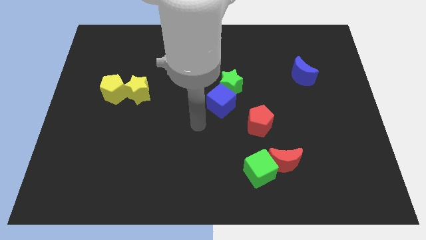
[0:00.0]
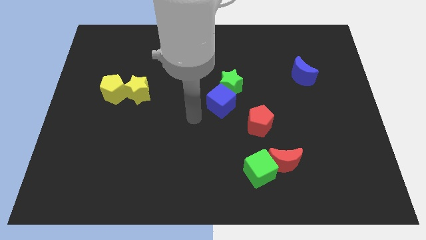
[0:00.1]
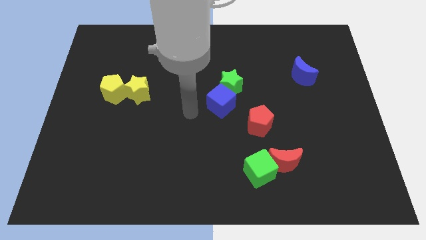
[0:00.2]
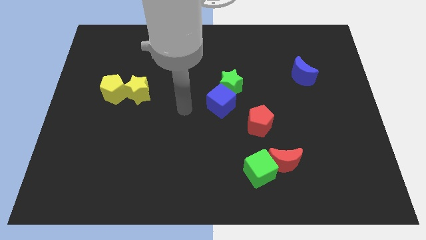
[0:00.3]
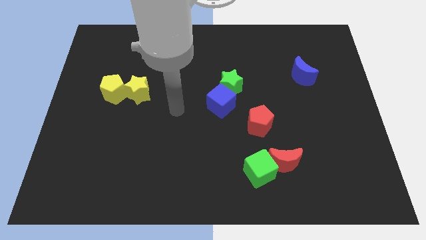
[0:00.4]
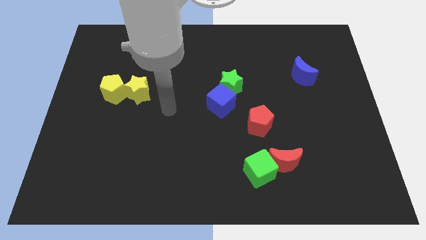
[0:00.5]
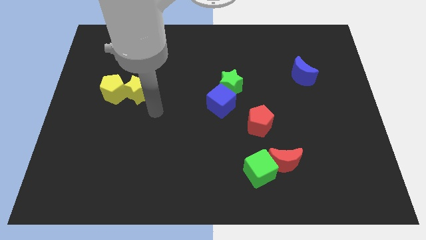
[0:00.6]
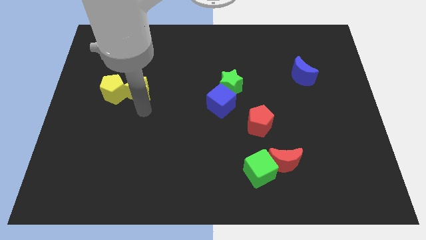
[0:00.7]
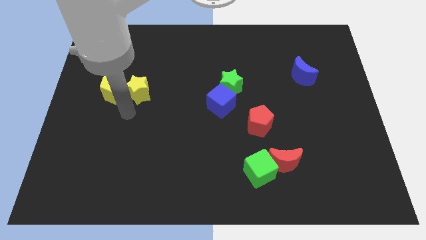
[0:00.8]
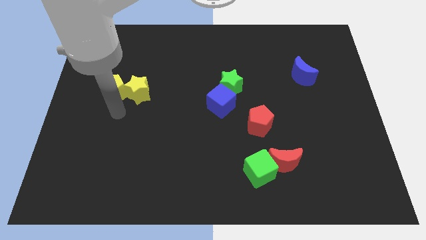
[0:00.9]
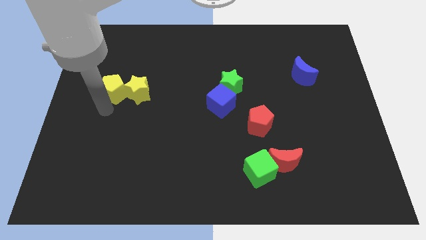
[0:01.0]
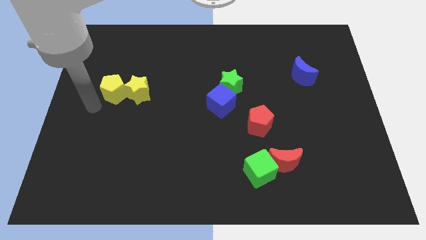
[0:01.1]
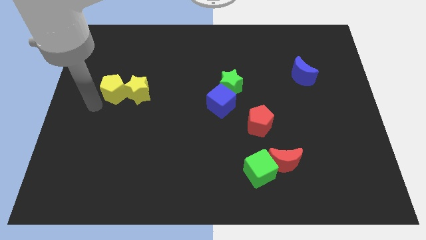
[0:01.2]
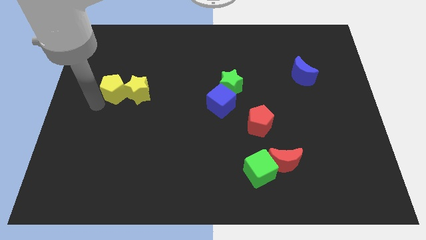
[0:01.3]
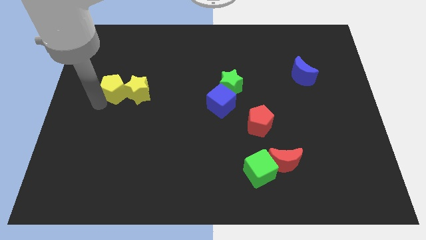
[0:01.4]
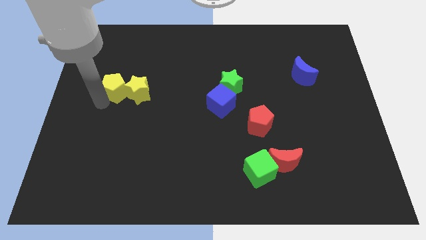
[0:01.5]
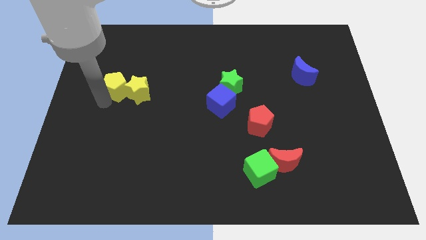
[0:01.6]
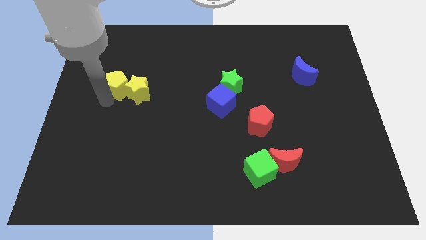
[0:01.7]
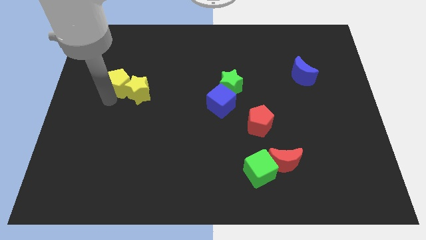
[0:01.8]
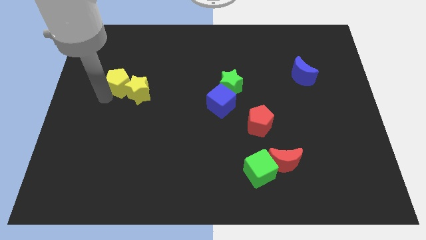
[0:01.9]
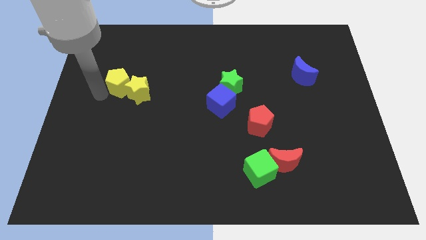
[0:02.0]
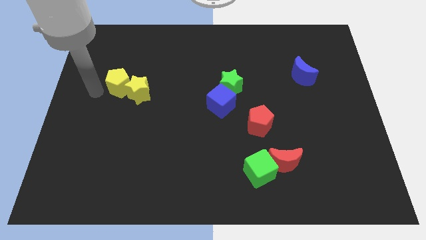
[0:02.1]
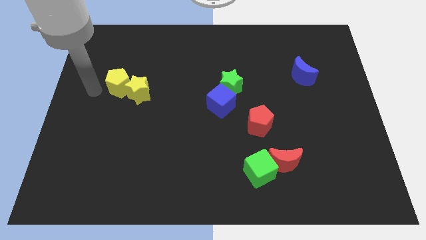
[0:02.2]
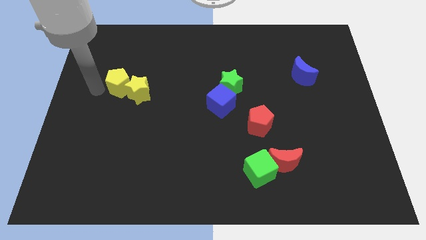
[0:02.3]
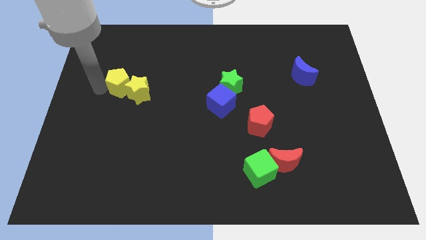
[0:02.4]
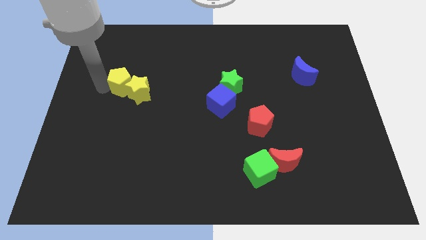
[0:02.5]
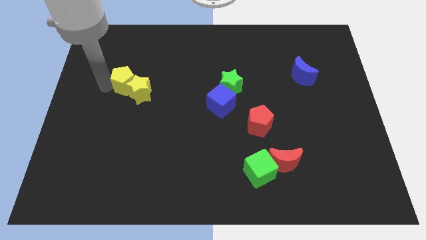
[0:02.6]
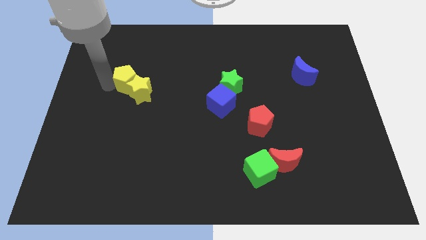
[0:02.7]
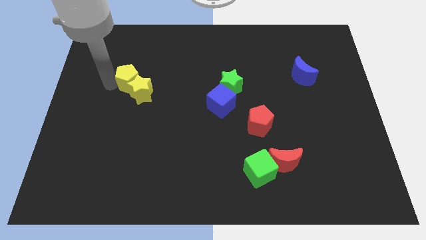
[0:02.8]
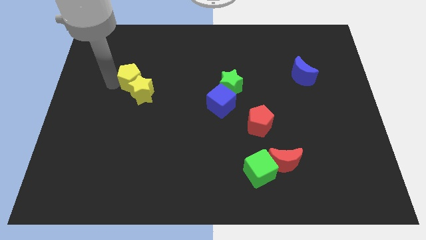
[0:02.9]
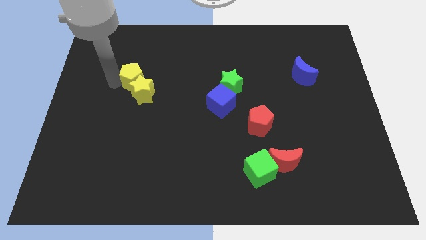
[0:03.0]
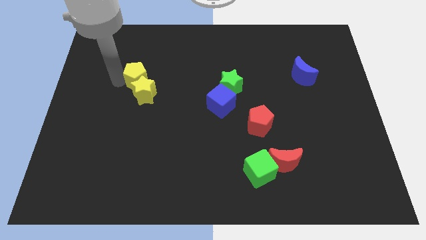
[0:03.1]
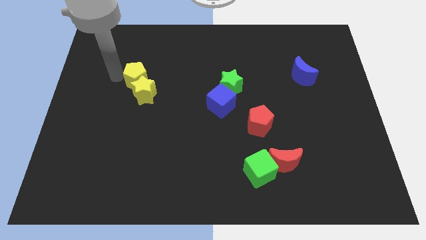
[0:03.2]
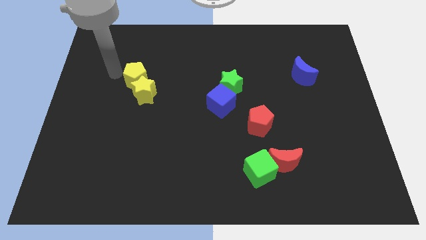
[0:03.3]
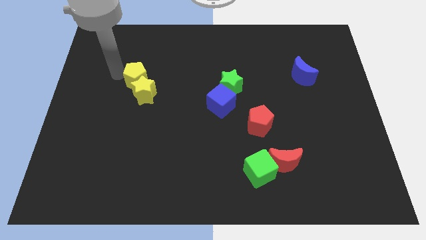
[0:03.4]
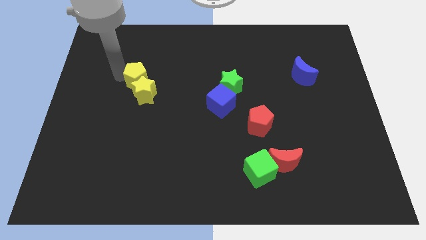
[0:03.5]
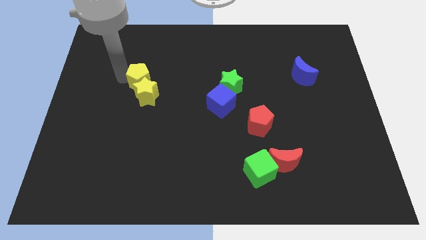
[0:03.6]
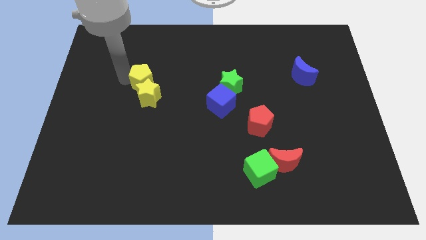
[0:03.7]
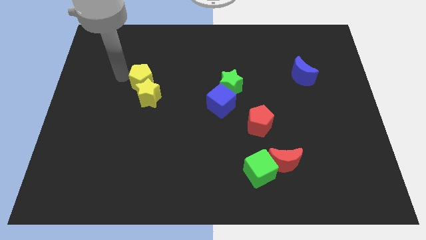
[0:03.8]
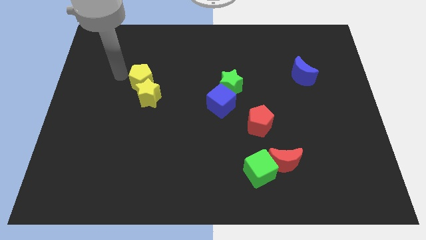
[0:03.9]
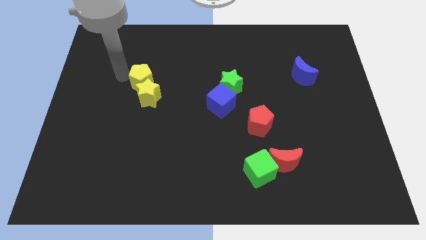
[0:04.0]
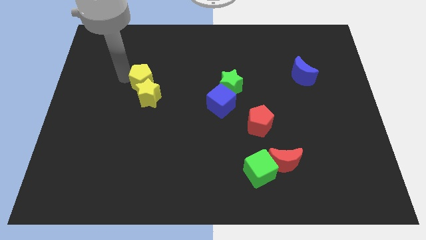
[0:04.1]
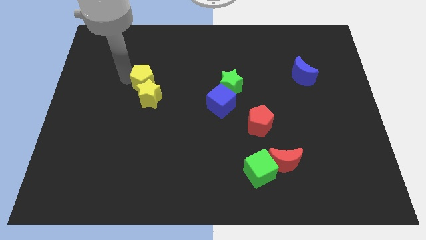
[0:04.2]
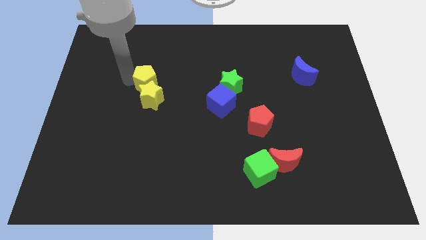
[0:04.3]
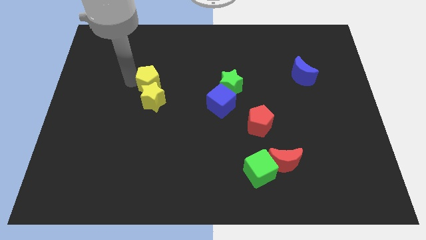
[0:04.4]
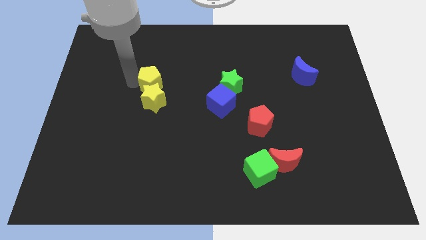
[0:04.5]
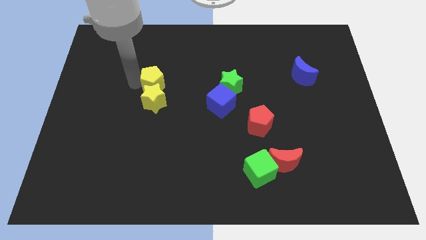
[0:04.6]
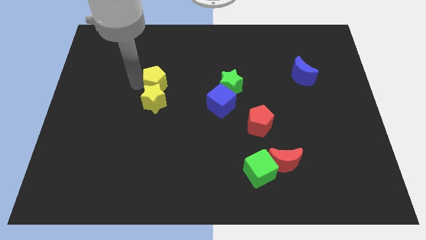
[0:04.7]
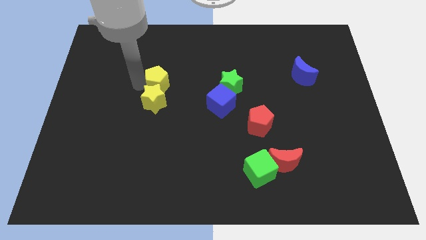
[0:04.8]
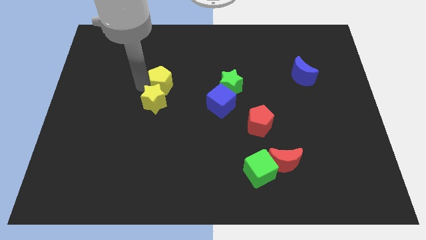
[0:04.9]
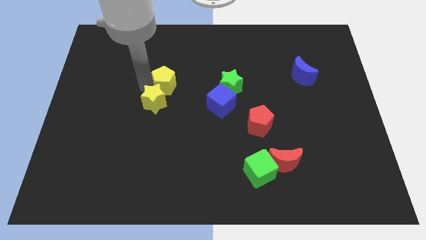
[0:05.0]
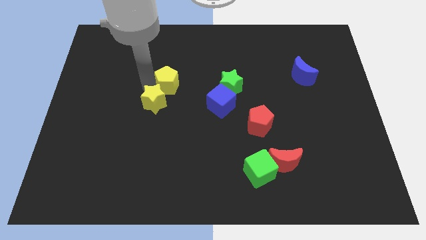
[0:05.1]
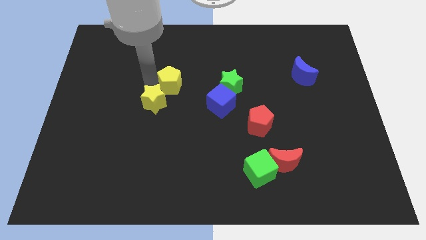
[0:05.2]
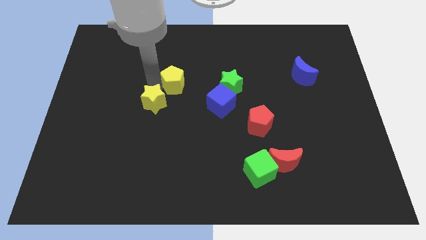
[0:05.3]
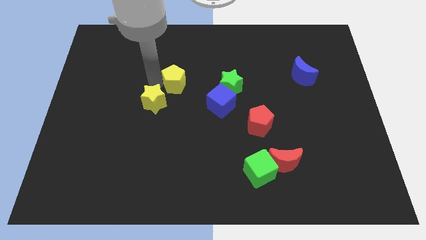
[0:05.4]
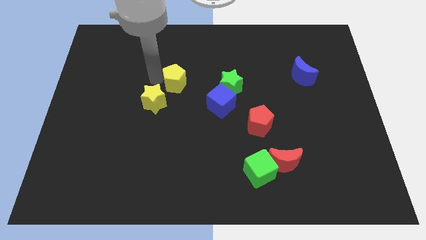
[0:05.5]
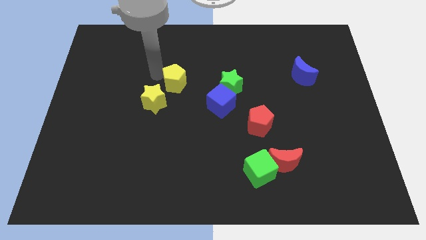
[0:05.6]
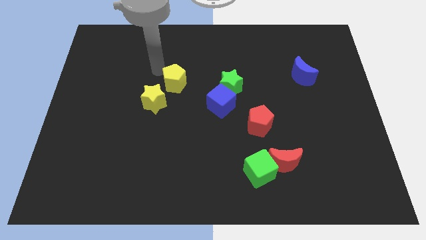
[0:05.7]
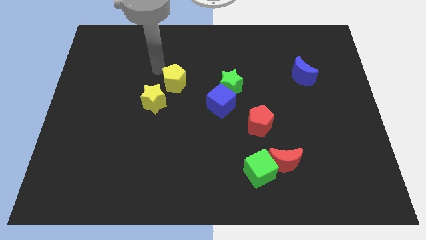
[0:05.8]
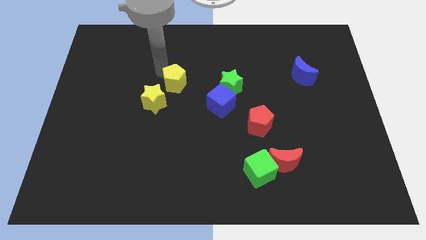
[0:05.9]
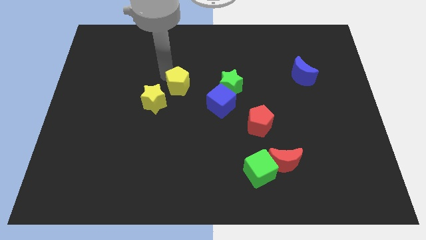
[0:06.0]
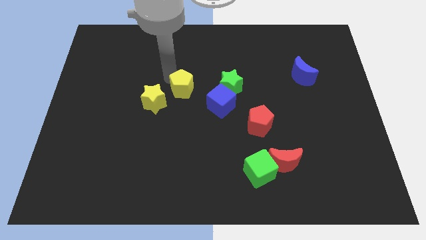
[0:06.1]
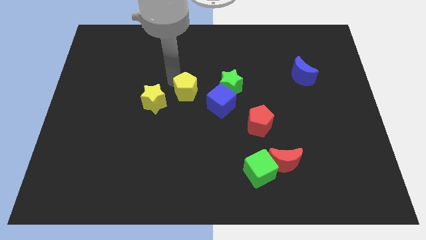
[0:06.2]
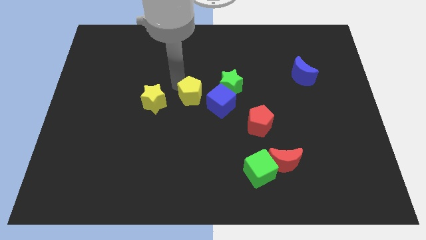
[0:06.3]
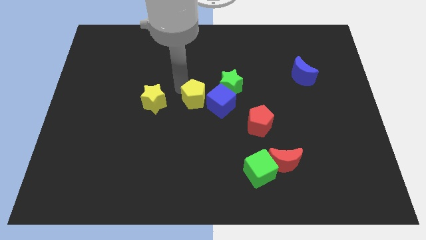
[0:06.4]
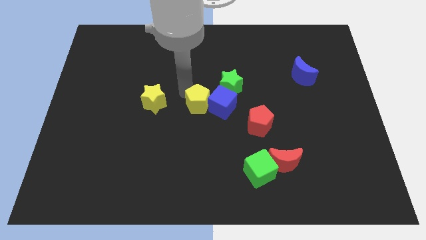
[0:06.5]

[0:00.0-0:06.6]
move the yellow pentagon close to the blue cube
